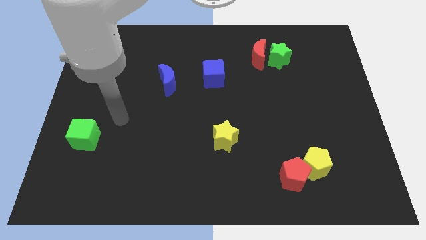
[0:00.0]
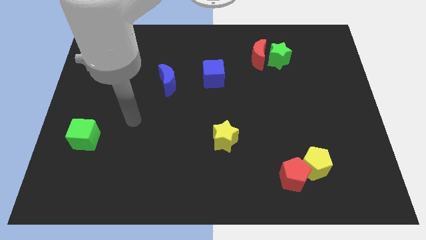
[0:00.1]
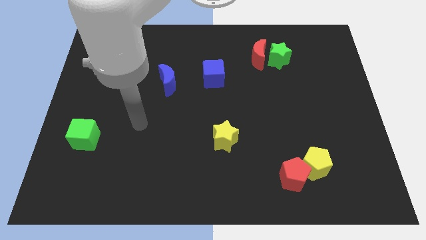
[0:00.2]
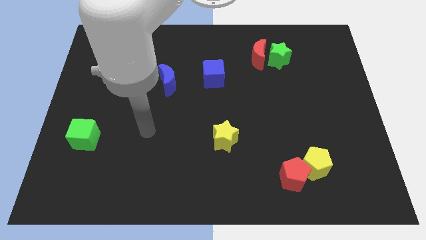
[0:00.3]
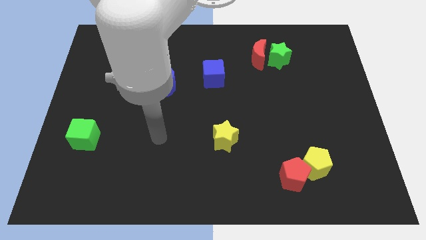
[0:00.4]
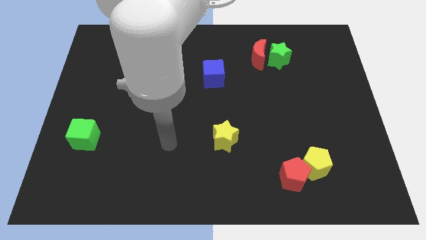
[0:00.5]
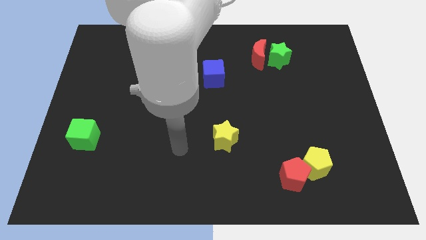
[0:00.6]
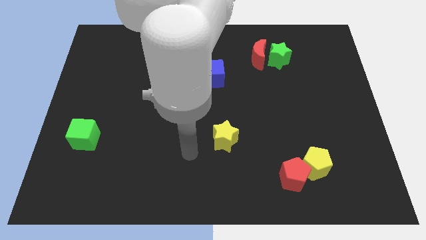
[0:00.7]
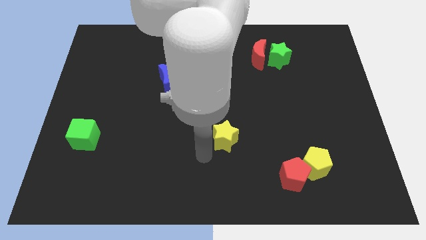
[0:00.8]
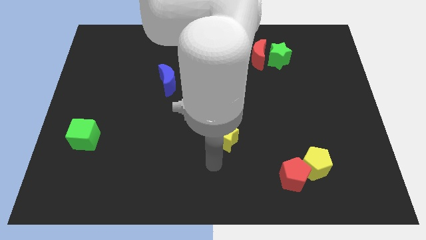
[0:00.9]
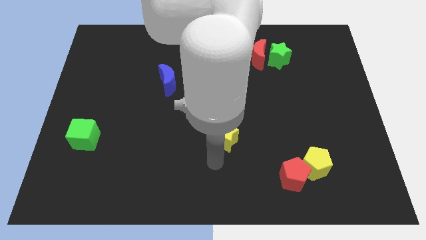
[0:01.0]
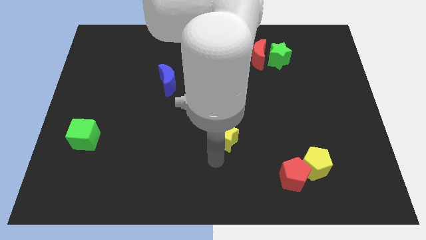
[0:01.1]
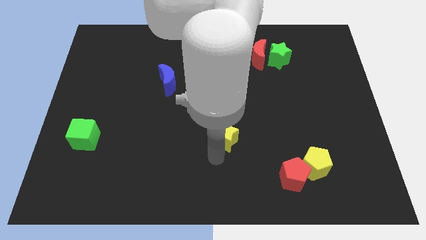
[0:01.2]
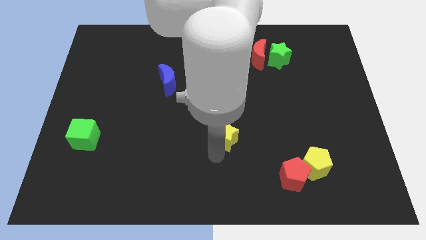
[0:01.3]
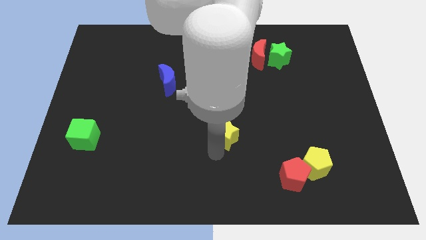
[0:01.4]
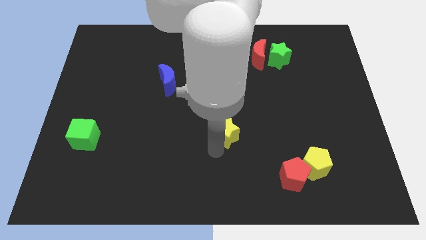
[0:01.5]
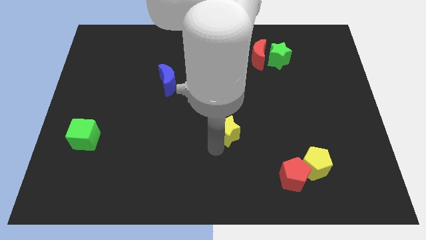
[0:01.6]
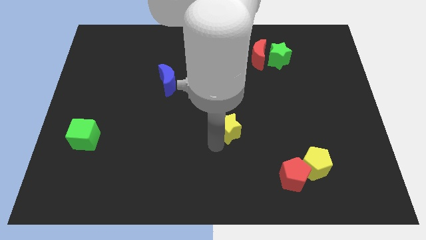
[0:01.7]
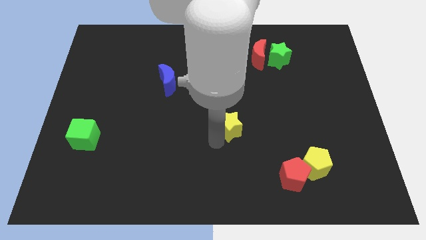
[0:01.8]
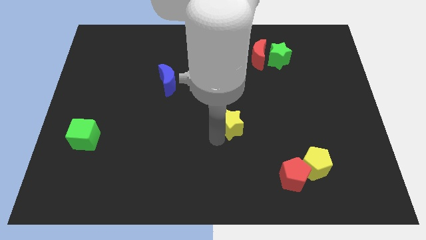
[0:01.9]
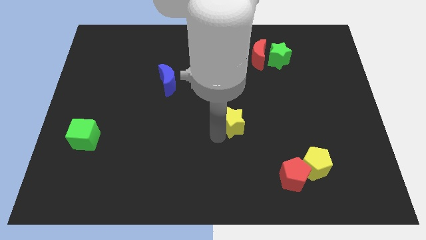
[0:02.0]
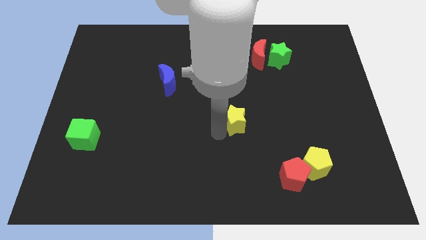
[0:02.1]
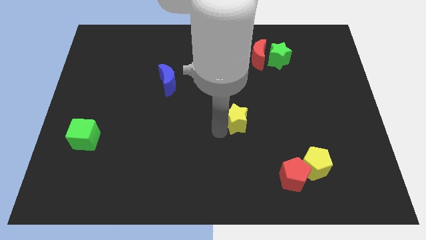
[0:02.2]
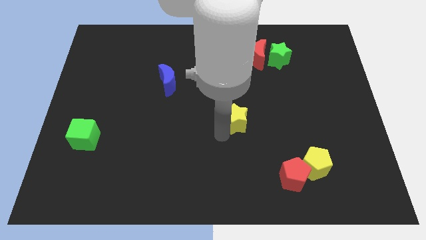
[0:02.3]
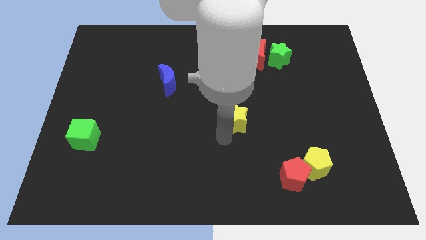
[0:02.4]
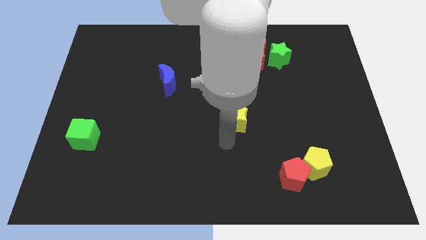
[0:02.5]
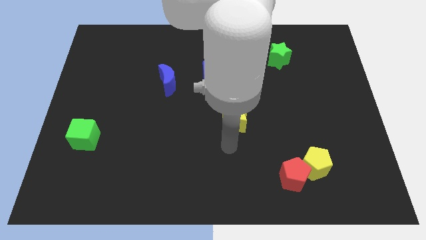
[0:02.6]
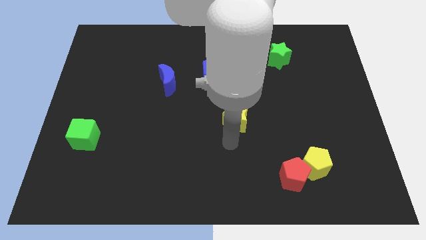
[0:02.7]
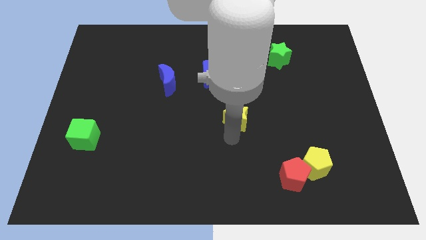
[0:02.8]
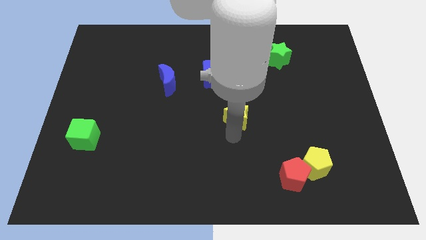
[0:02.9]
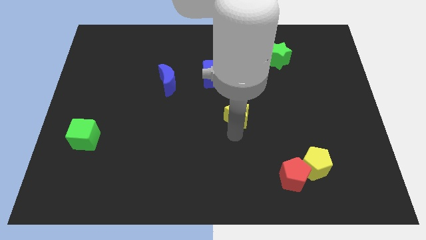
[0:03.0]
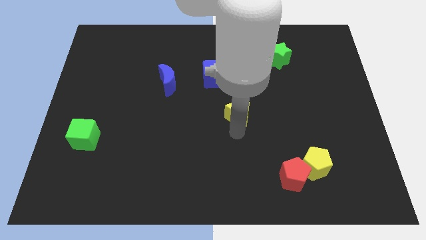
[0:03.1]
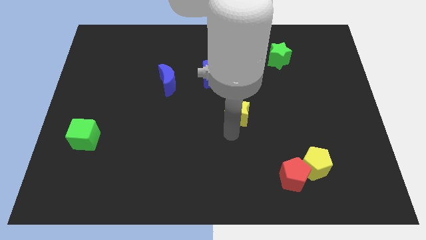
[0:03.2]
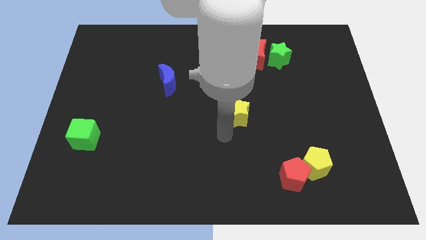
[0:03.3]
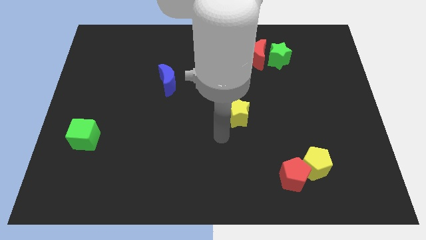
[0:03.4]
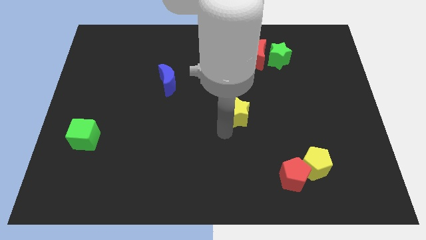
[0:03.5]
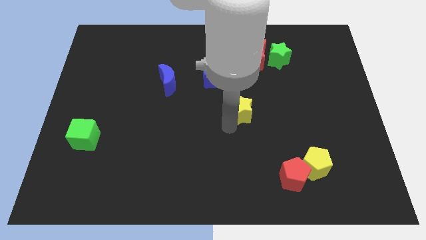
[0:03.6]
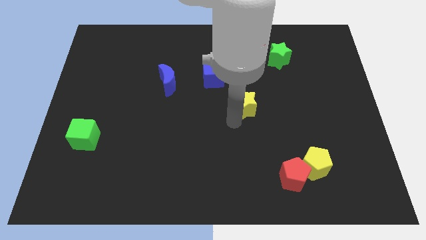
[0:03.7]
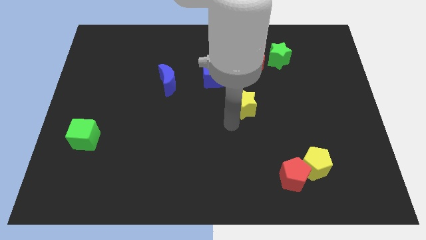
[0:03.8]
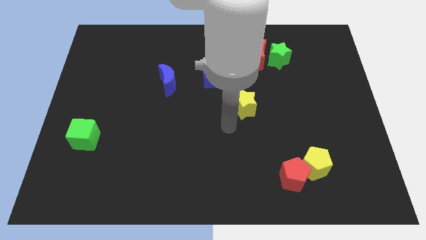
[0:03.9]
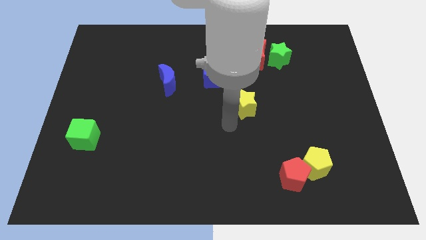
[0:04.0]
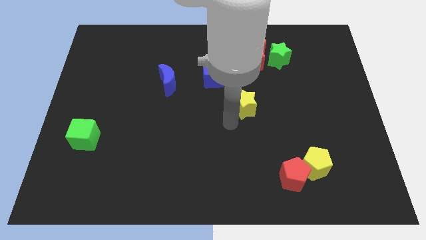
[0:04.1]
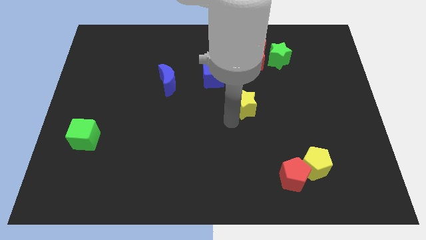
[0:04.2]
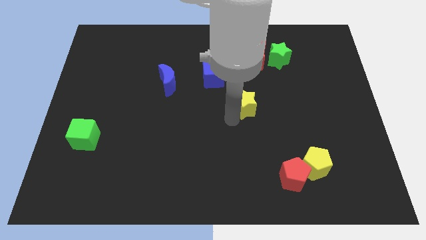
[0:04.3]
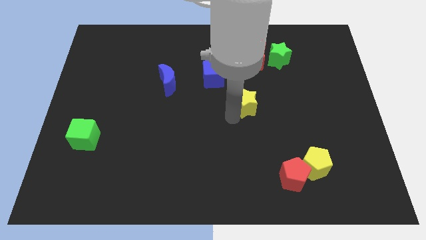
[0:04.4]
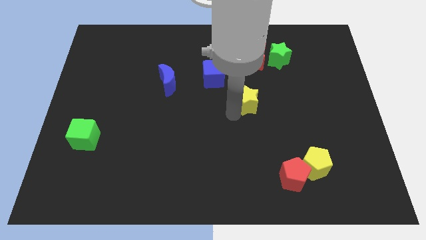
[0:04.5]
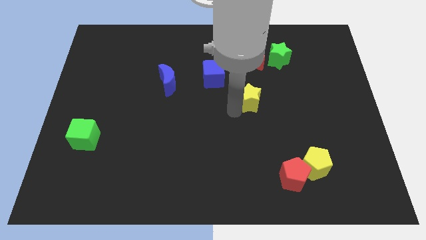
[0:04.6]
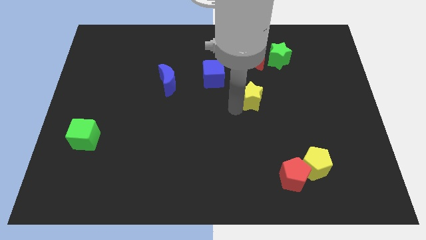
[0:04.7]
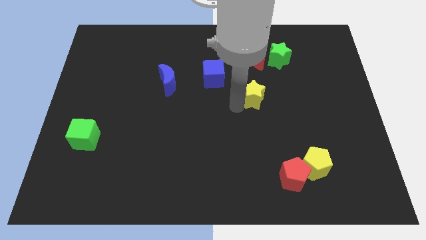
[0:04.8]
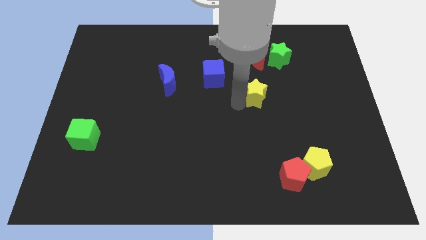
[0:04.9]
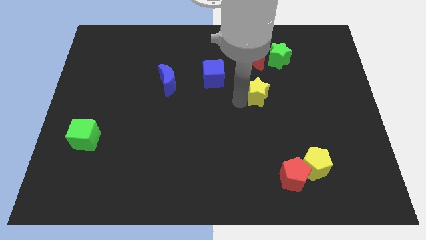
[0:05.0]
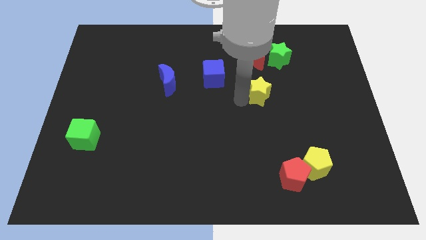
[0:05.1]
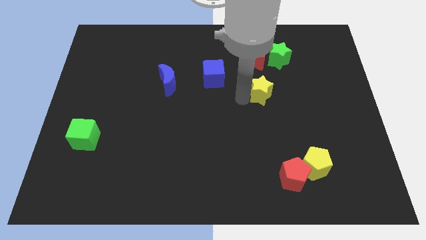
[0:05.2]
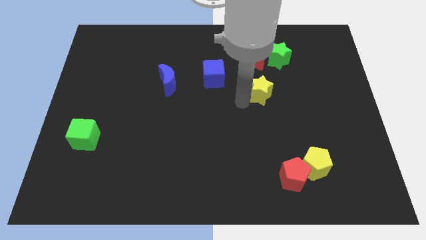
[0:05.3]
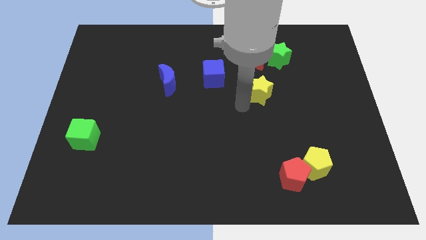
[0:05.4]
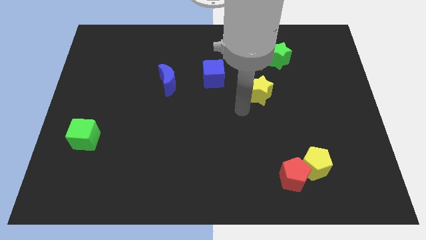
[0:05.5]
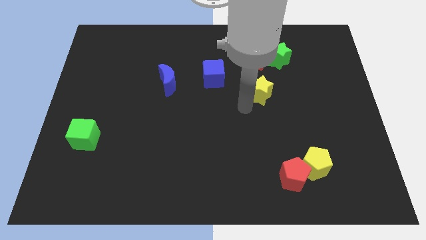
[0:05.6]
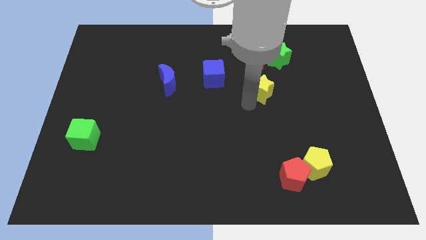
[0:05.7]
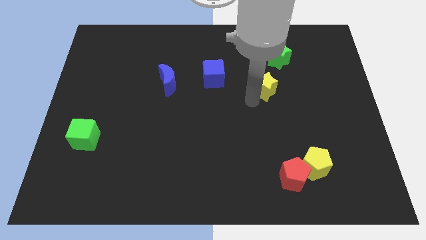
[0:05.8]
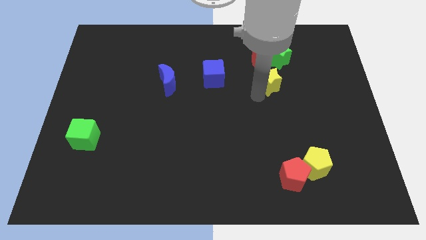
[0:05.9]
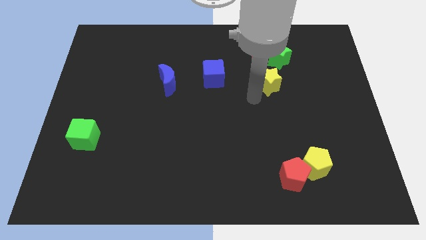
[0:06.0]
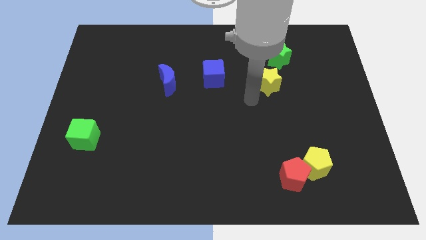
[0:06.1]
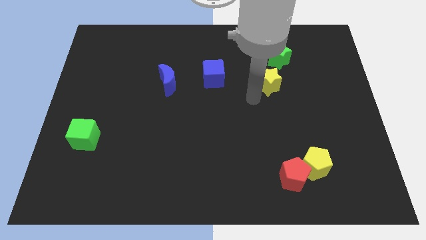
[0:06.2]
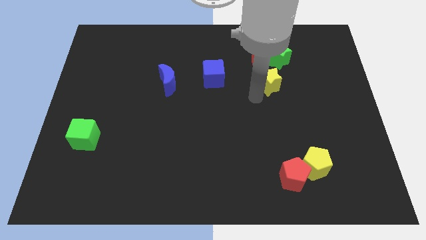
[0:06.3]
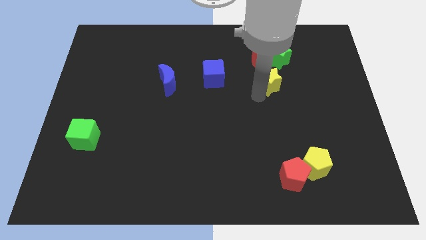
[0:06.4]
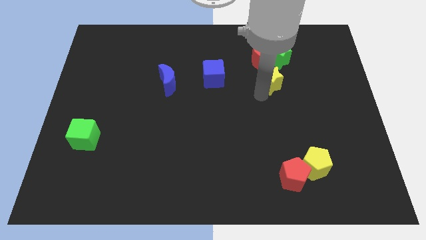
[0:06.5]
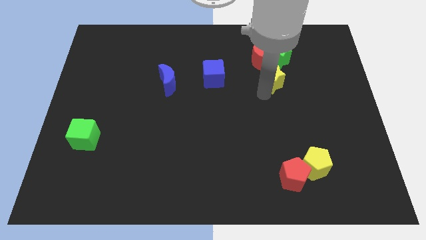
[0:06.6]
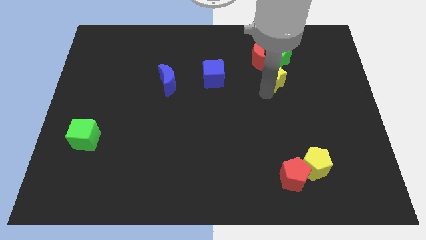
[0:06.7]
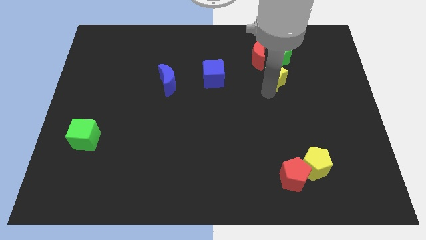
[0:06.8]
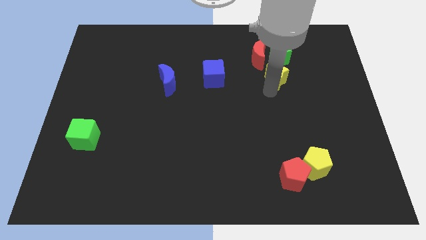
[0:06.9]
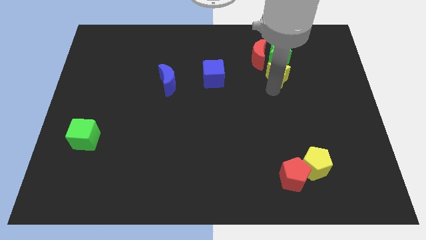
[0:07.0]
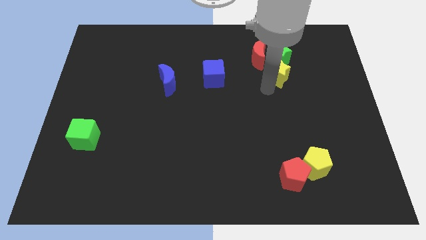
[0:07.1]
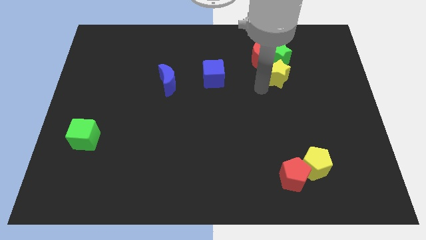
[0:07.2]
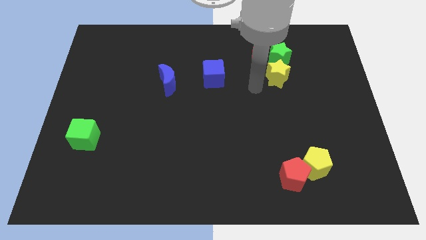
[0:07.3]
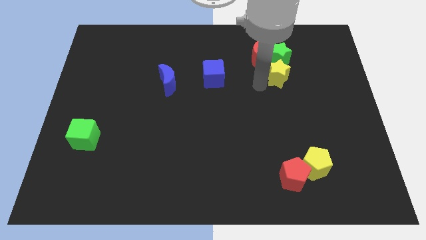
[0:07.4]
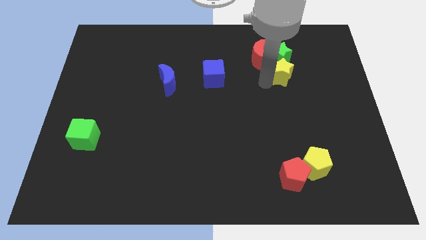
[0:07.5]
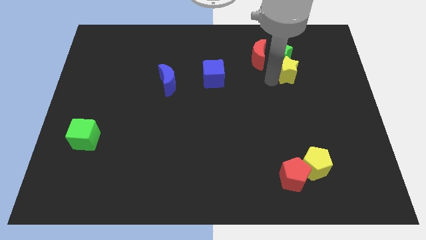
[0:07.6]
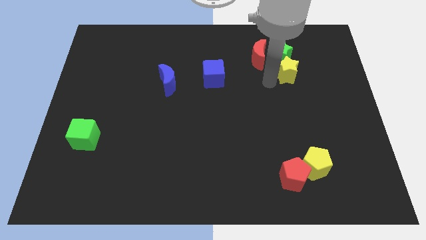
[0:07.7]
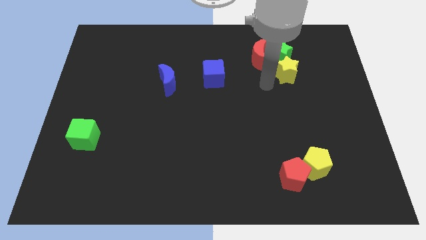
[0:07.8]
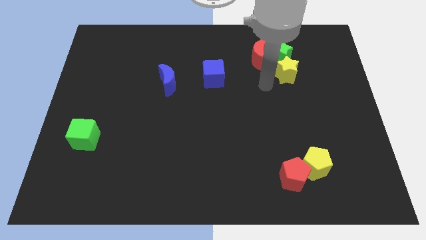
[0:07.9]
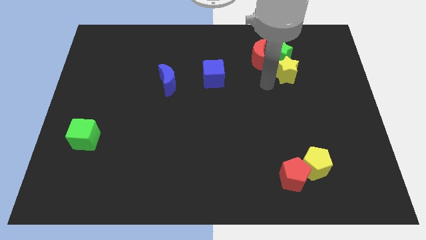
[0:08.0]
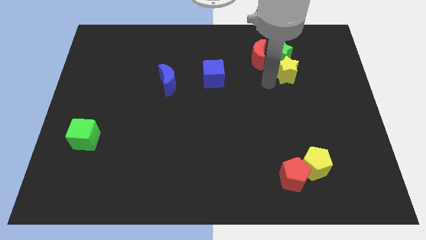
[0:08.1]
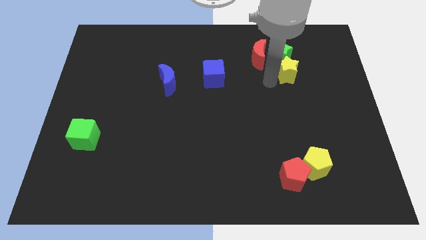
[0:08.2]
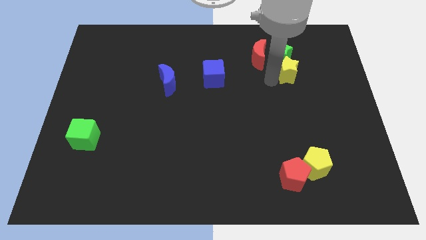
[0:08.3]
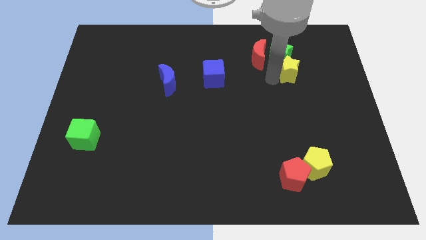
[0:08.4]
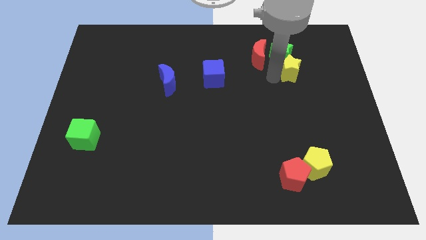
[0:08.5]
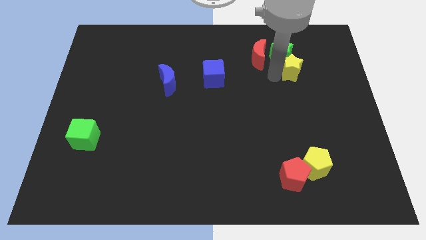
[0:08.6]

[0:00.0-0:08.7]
put the yellow star to the right of the red moon
